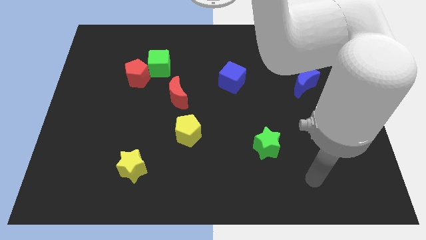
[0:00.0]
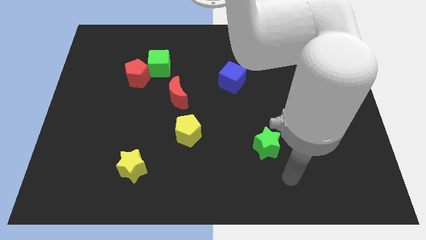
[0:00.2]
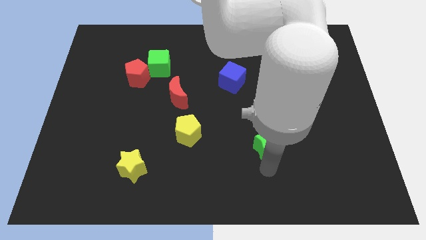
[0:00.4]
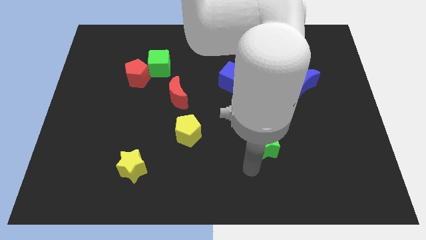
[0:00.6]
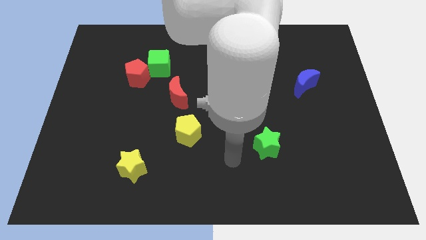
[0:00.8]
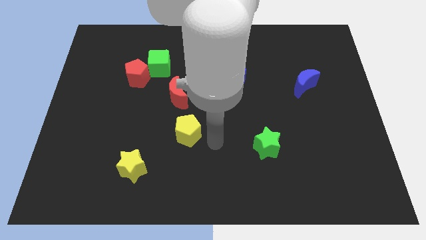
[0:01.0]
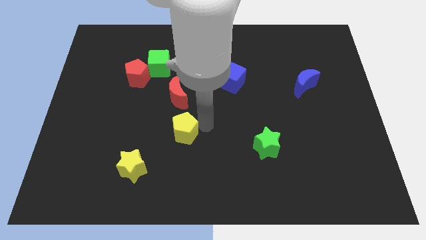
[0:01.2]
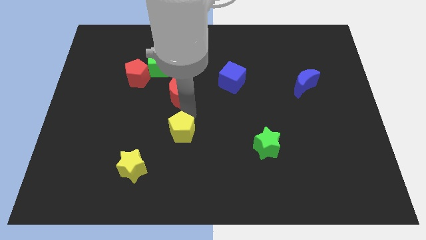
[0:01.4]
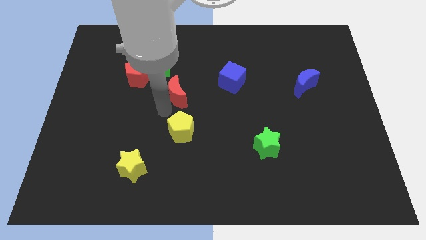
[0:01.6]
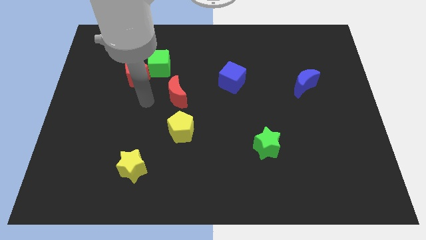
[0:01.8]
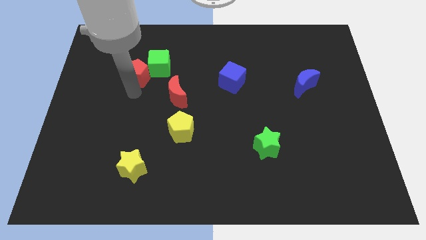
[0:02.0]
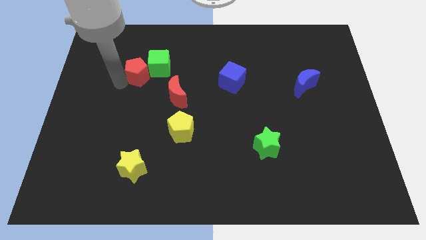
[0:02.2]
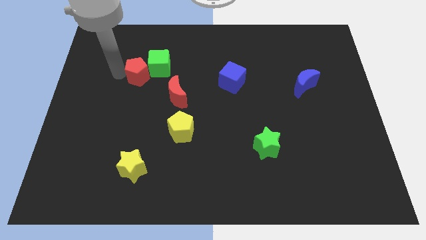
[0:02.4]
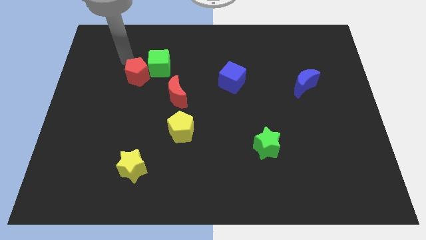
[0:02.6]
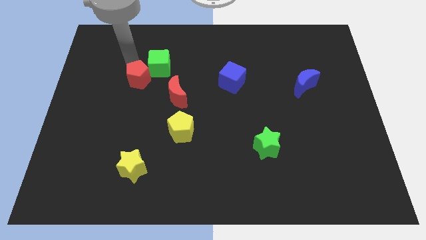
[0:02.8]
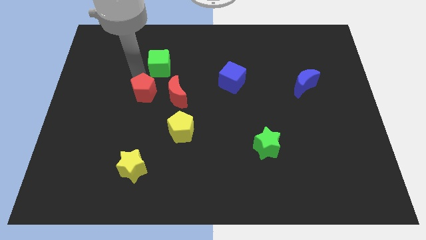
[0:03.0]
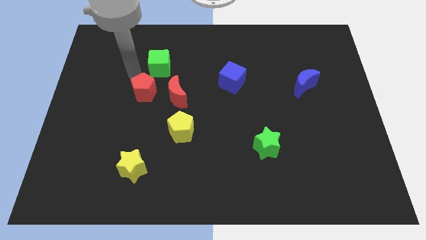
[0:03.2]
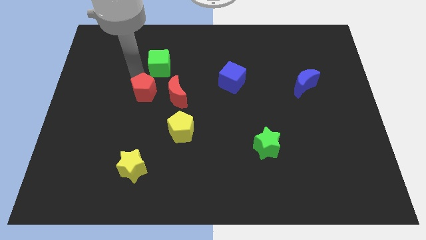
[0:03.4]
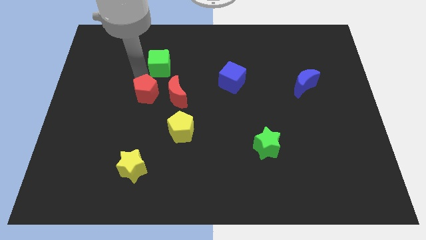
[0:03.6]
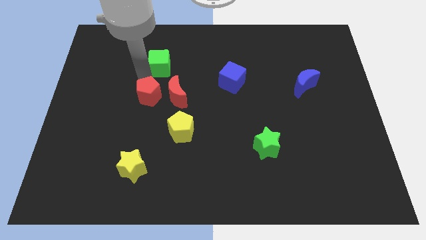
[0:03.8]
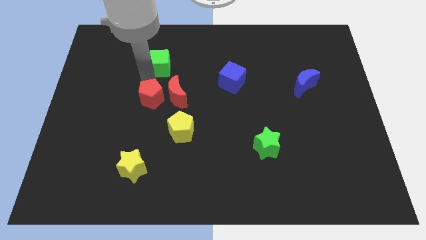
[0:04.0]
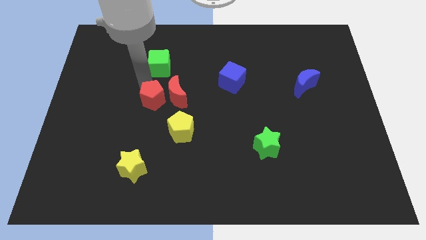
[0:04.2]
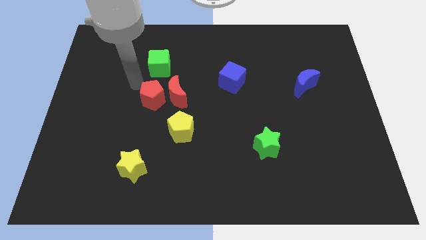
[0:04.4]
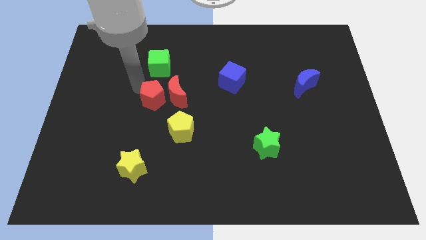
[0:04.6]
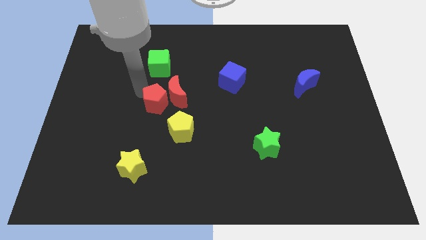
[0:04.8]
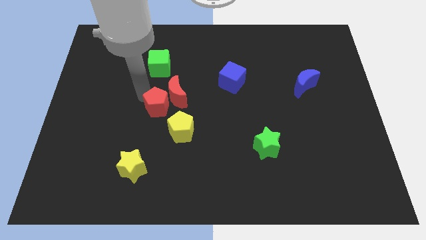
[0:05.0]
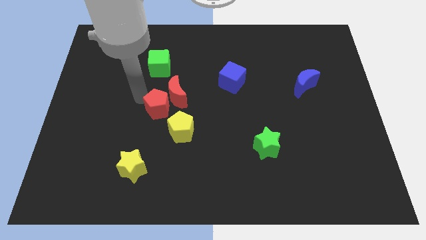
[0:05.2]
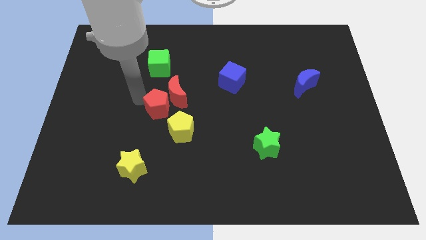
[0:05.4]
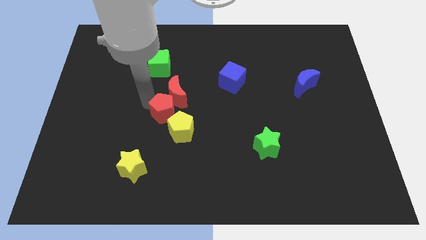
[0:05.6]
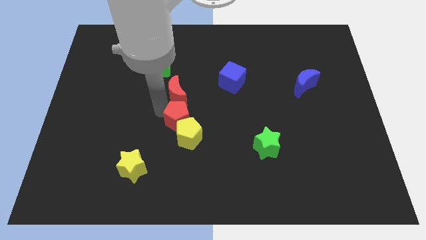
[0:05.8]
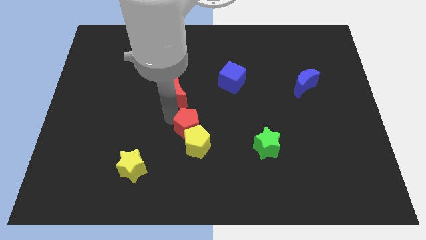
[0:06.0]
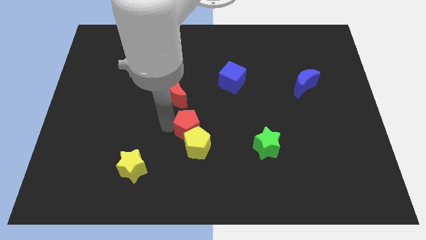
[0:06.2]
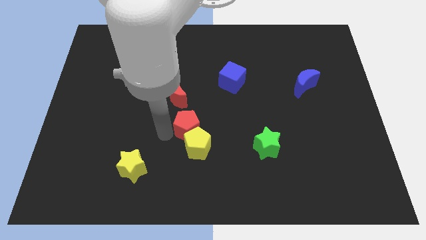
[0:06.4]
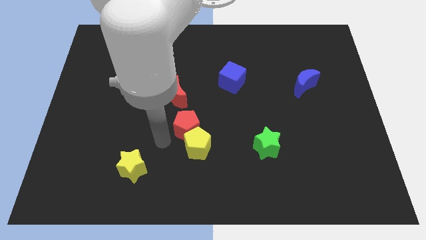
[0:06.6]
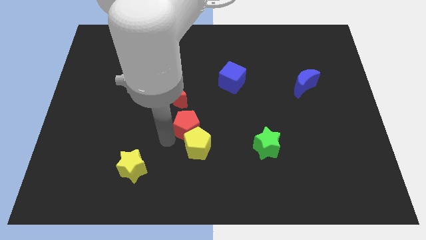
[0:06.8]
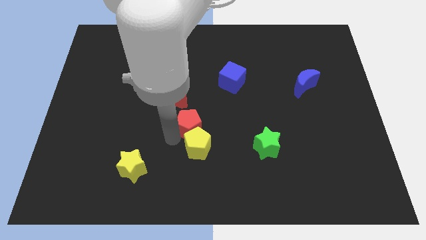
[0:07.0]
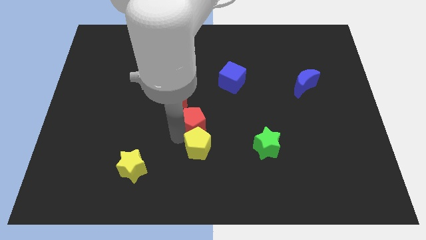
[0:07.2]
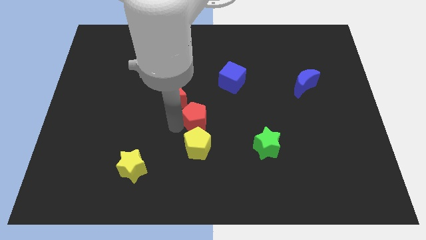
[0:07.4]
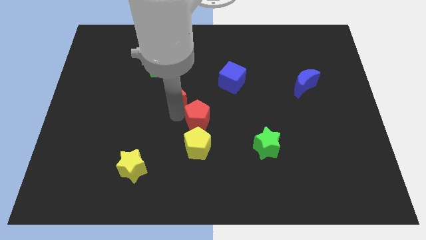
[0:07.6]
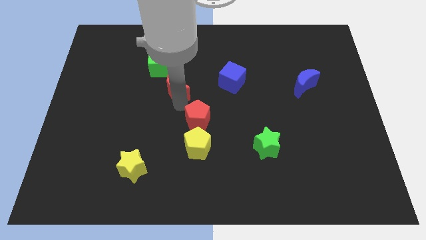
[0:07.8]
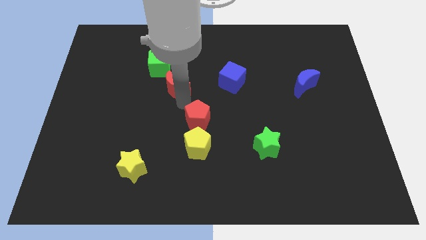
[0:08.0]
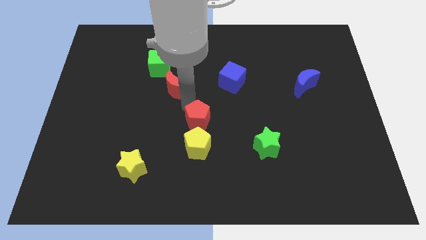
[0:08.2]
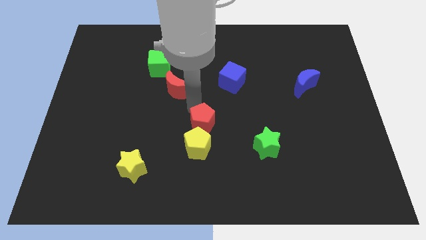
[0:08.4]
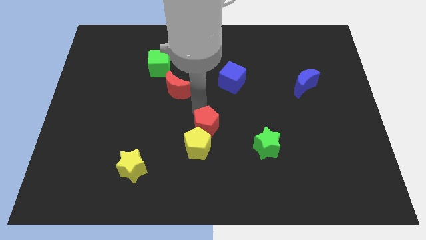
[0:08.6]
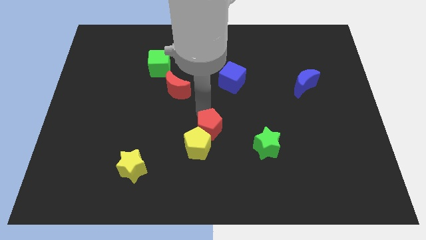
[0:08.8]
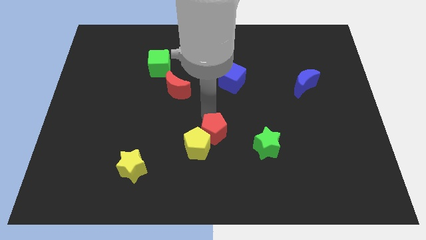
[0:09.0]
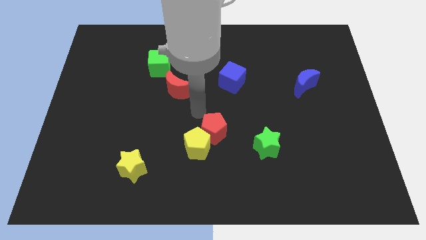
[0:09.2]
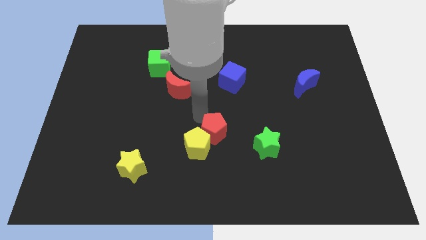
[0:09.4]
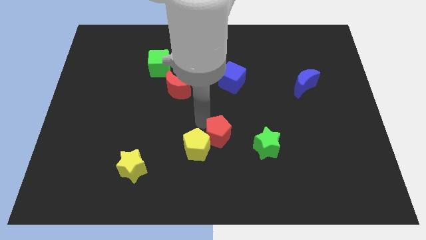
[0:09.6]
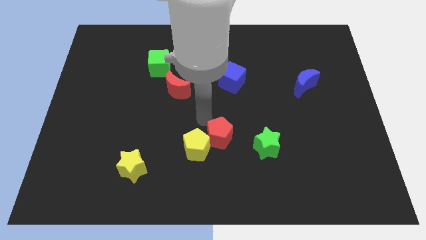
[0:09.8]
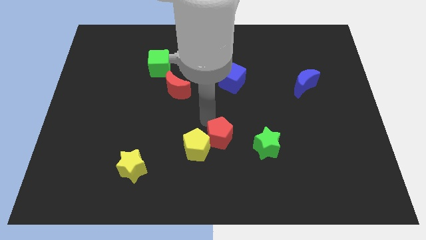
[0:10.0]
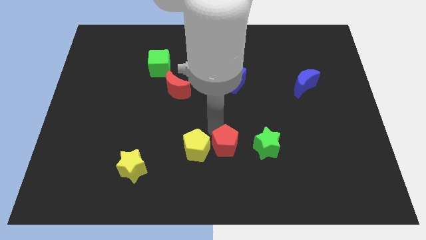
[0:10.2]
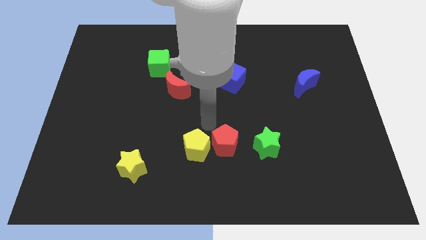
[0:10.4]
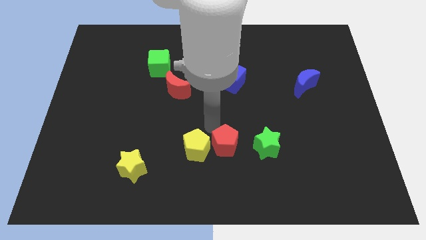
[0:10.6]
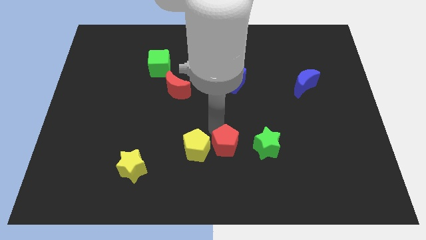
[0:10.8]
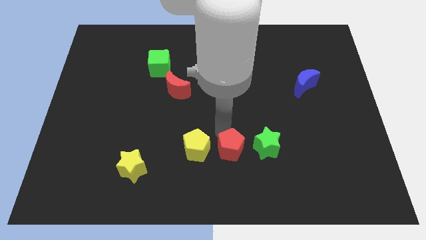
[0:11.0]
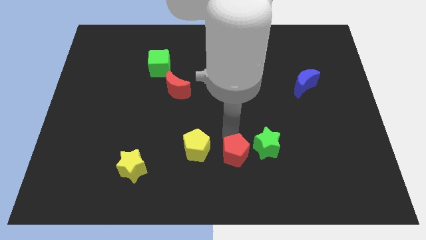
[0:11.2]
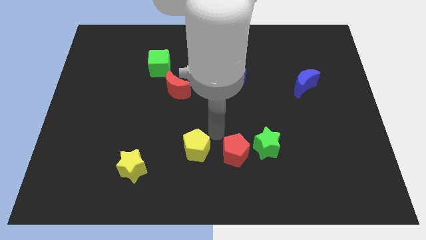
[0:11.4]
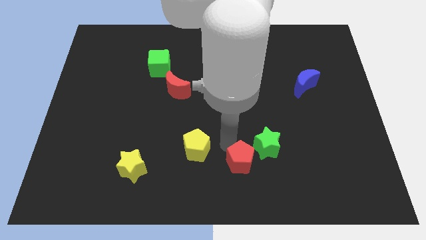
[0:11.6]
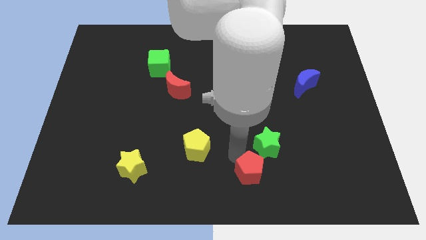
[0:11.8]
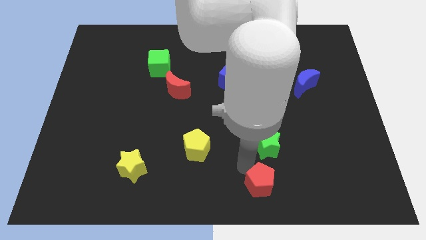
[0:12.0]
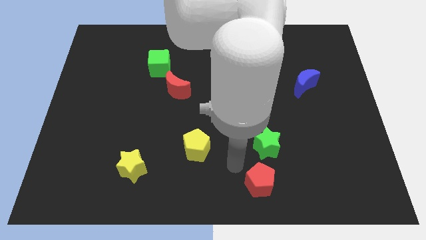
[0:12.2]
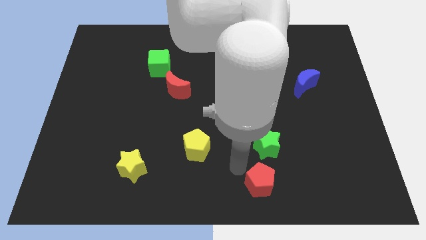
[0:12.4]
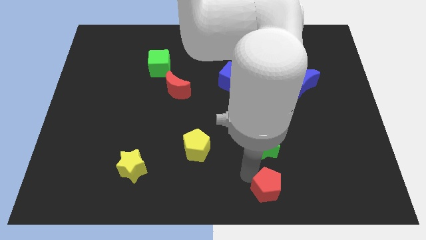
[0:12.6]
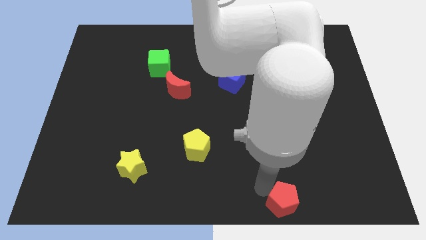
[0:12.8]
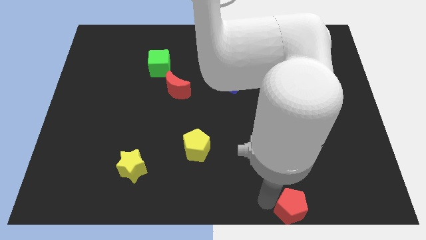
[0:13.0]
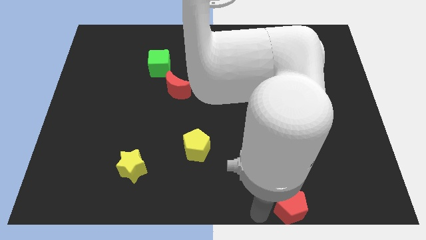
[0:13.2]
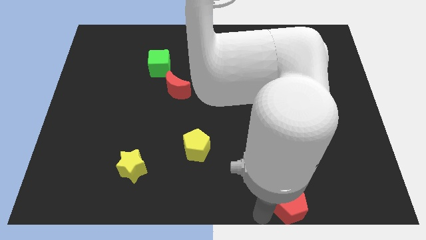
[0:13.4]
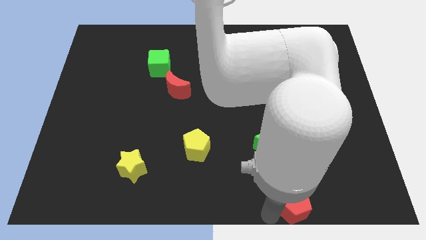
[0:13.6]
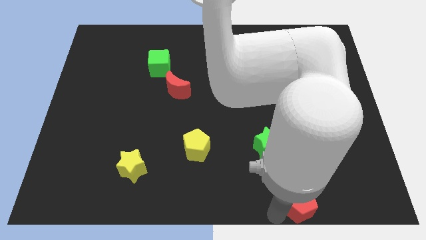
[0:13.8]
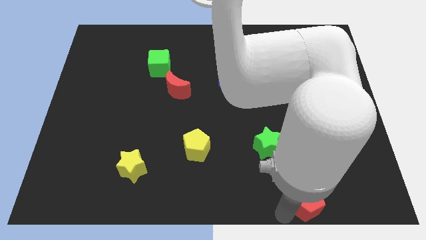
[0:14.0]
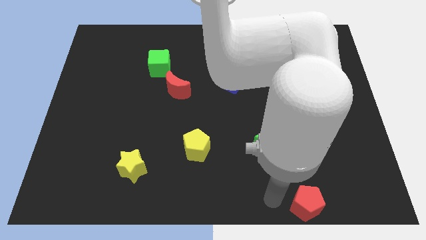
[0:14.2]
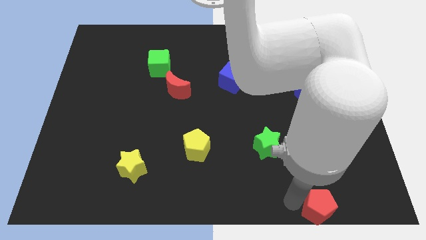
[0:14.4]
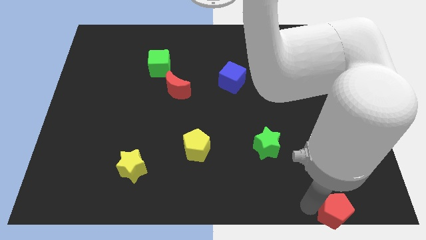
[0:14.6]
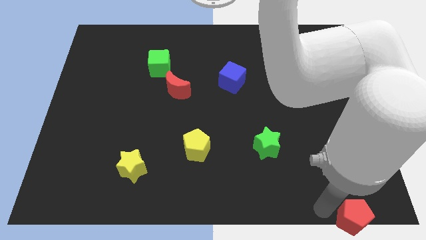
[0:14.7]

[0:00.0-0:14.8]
push the red pentagon to the bottom right of the board
